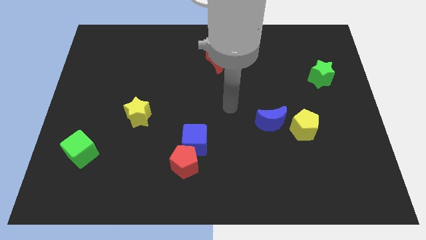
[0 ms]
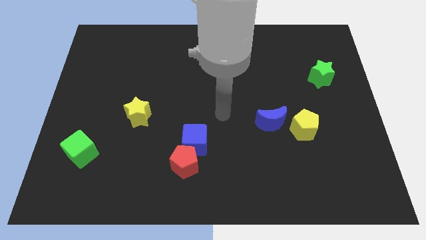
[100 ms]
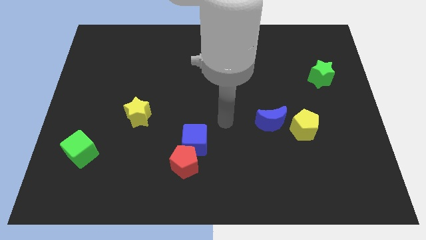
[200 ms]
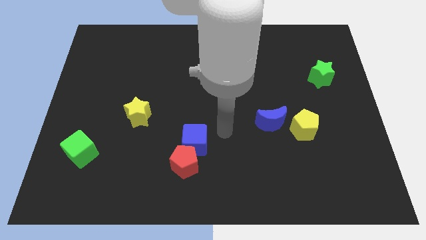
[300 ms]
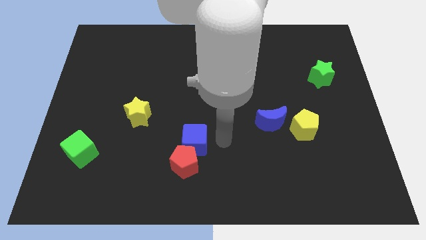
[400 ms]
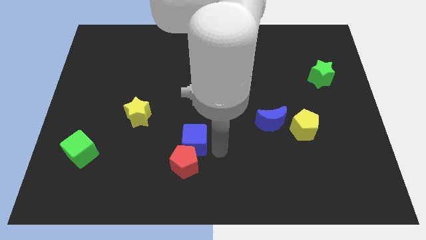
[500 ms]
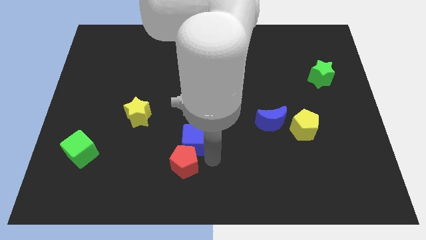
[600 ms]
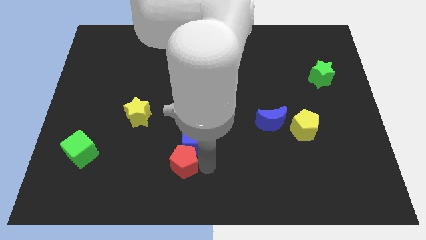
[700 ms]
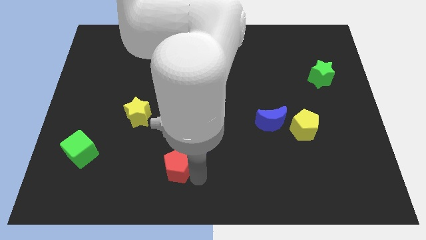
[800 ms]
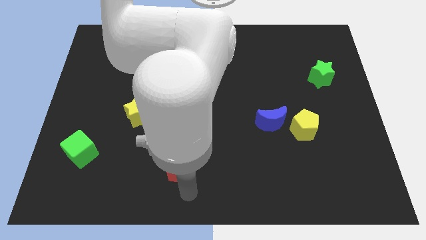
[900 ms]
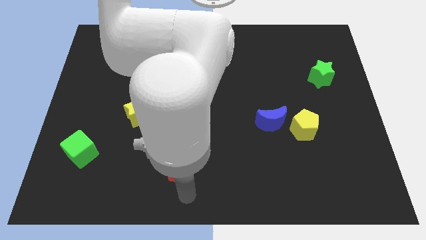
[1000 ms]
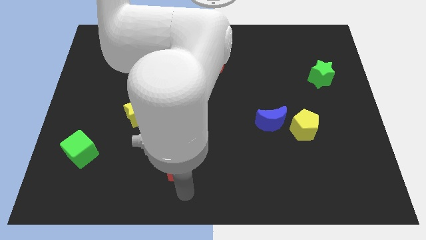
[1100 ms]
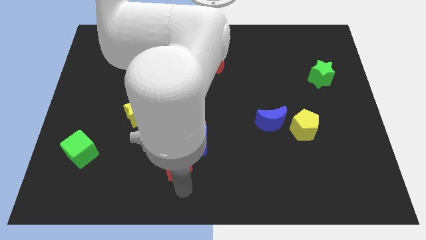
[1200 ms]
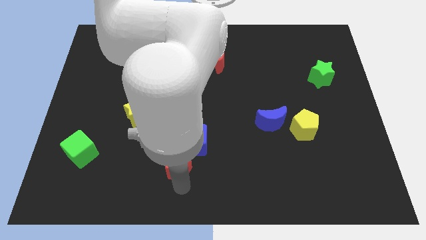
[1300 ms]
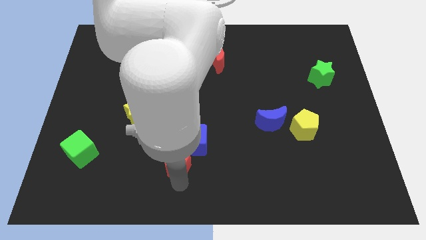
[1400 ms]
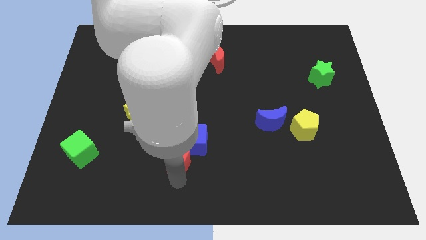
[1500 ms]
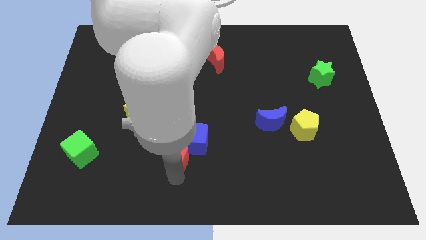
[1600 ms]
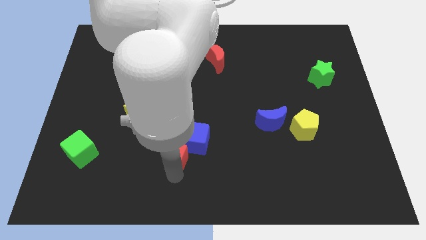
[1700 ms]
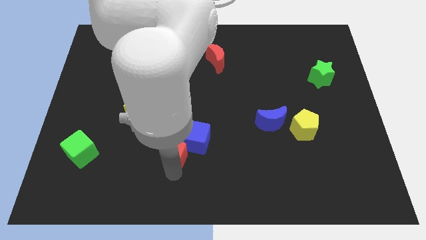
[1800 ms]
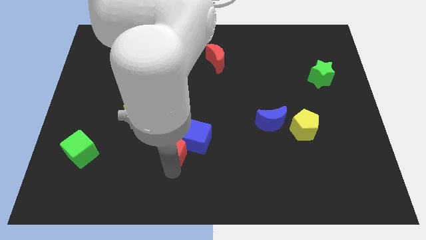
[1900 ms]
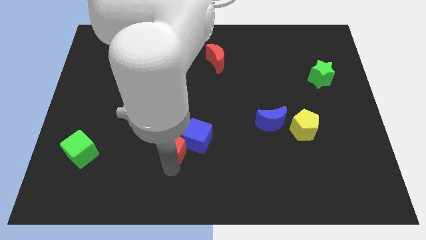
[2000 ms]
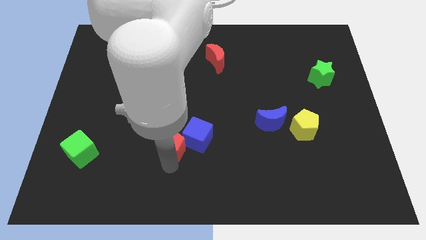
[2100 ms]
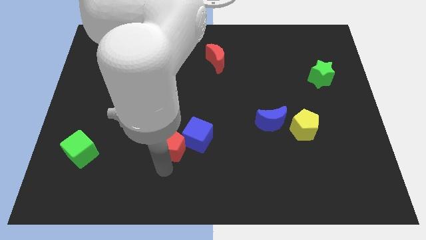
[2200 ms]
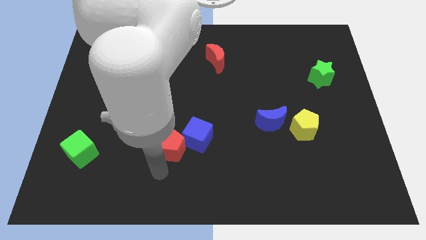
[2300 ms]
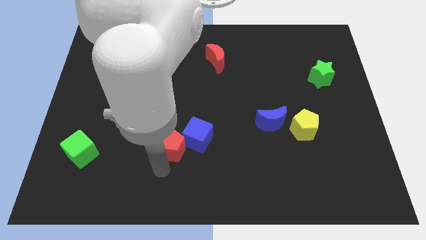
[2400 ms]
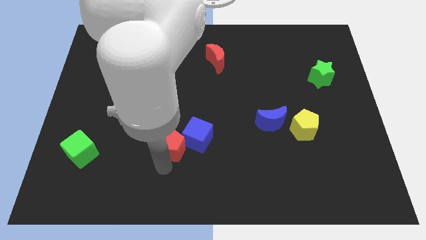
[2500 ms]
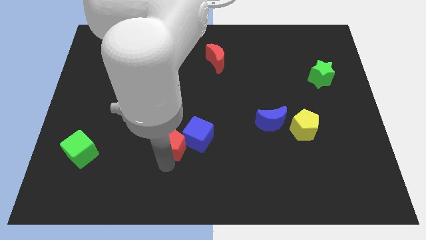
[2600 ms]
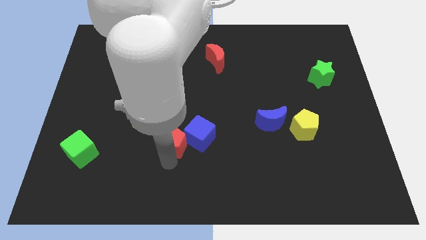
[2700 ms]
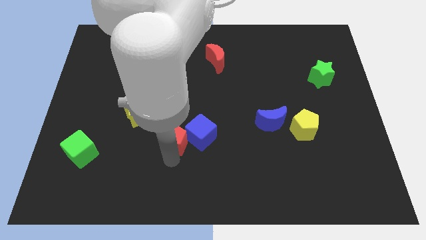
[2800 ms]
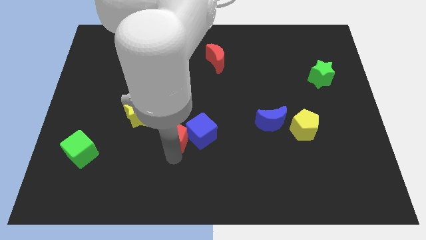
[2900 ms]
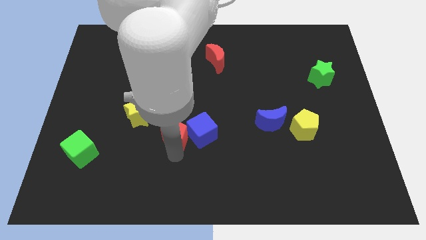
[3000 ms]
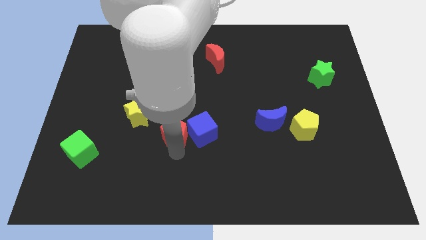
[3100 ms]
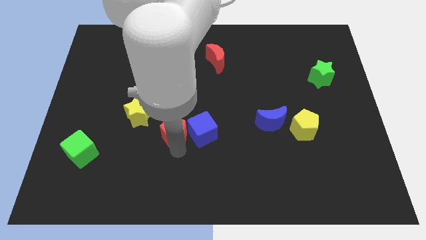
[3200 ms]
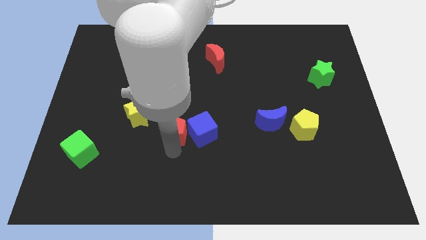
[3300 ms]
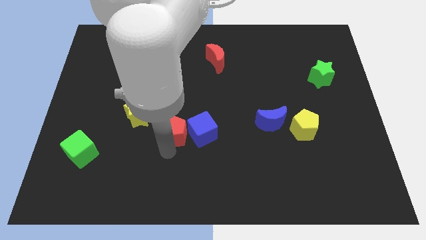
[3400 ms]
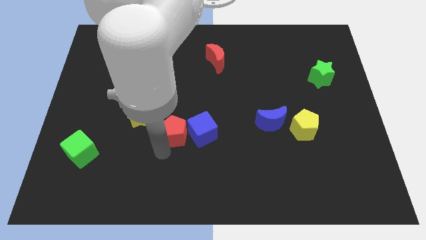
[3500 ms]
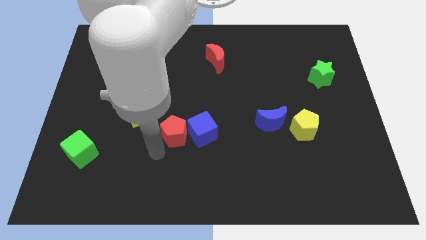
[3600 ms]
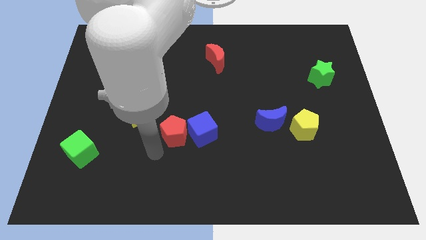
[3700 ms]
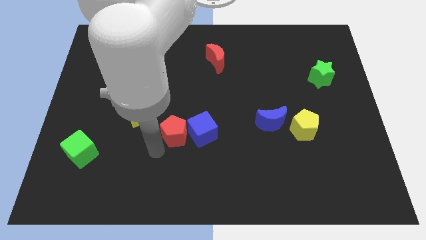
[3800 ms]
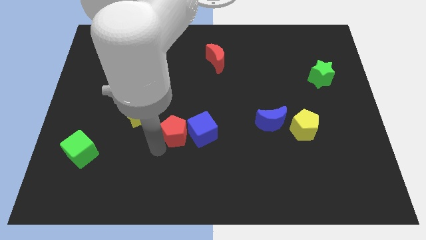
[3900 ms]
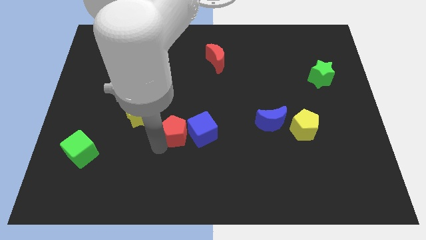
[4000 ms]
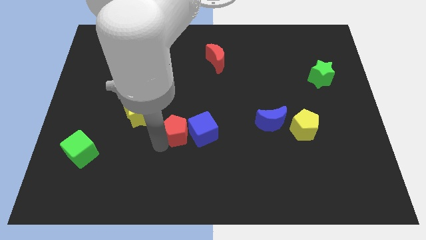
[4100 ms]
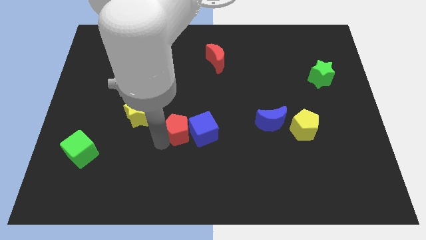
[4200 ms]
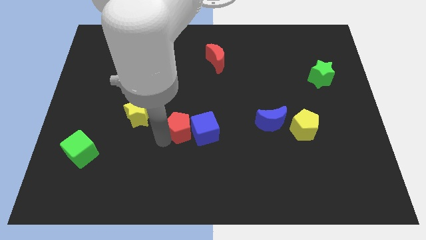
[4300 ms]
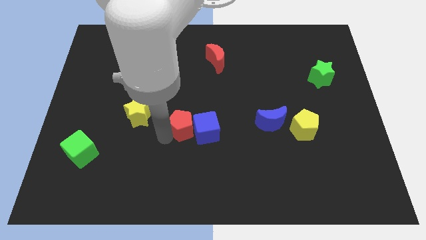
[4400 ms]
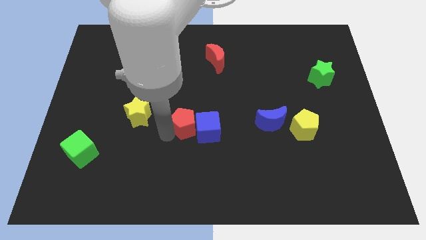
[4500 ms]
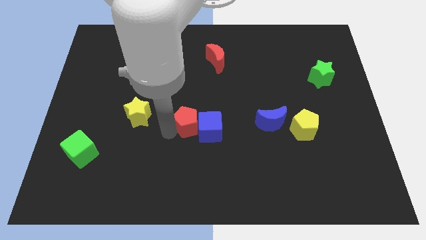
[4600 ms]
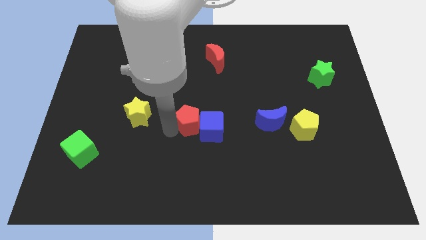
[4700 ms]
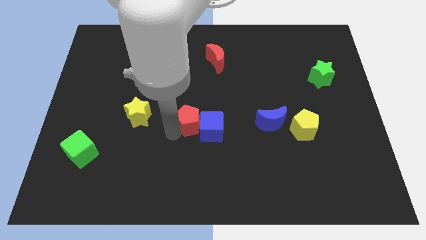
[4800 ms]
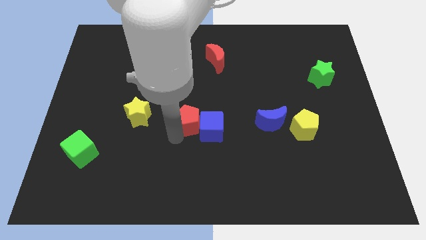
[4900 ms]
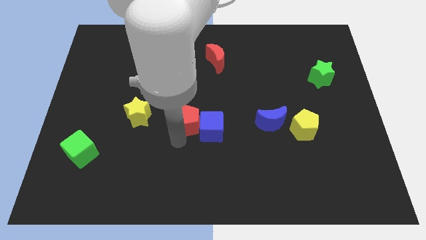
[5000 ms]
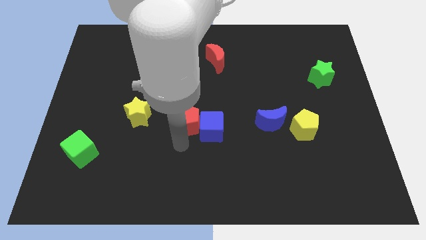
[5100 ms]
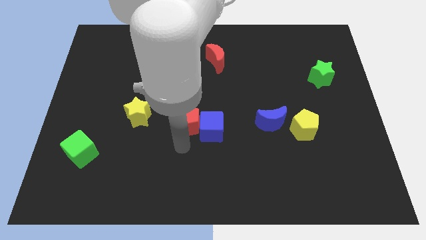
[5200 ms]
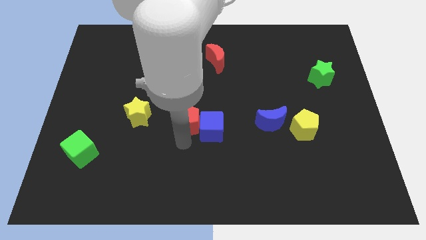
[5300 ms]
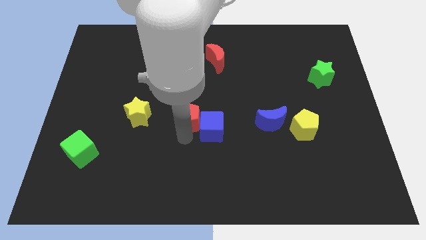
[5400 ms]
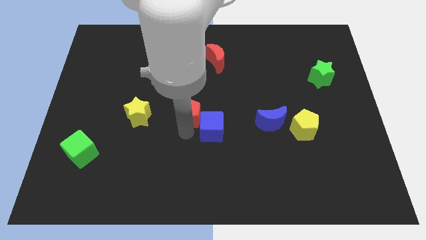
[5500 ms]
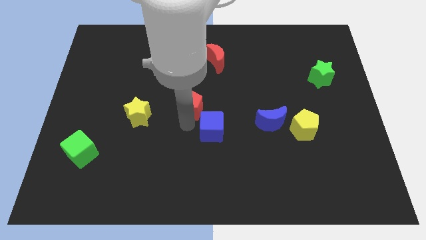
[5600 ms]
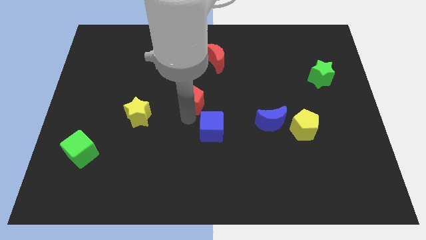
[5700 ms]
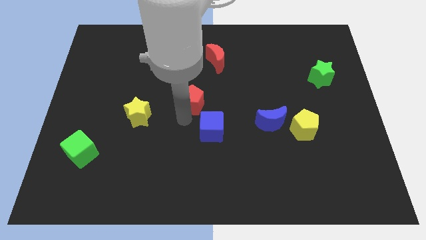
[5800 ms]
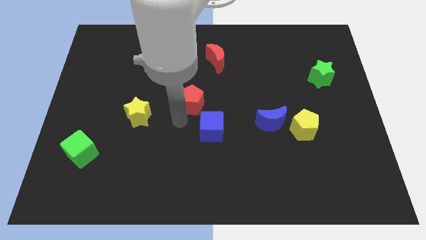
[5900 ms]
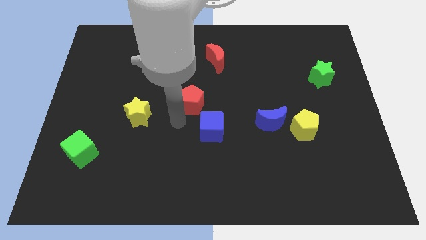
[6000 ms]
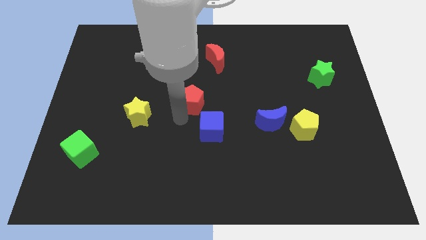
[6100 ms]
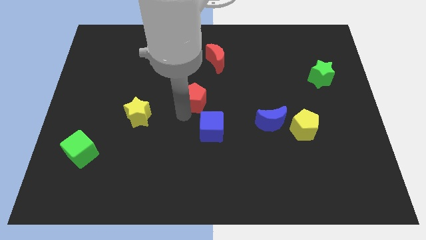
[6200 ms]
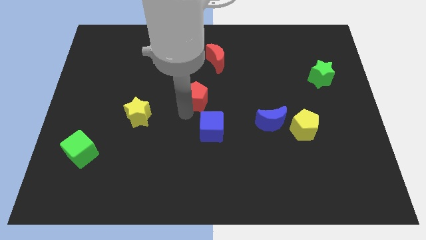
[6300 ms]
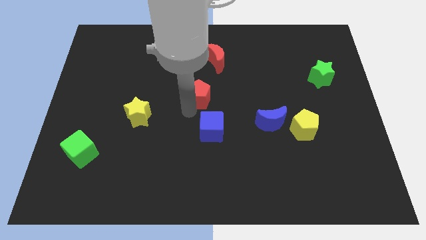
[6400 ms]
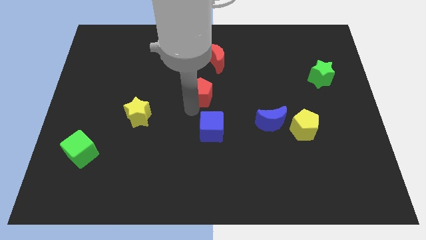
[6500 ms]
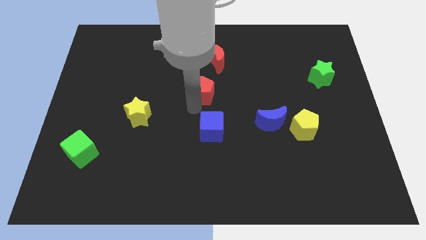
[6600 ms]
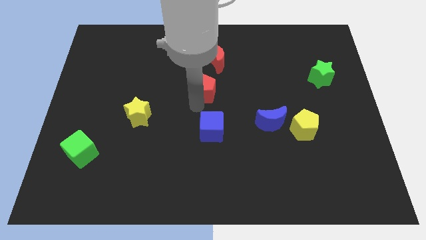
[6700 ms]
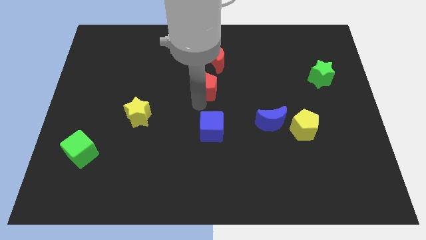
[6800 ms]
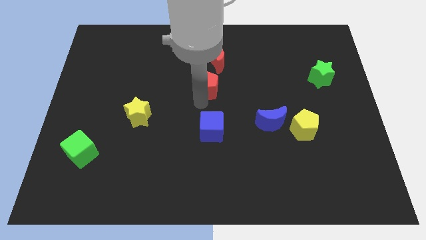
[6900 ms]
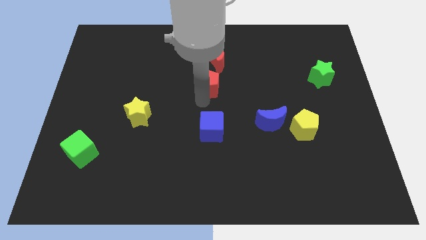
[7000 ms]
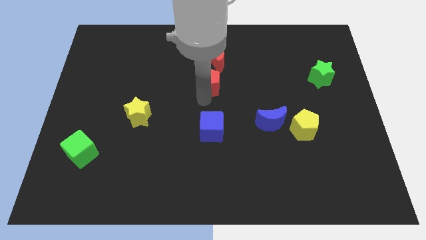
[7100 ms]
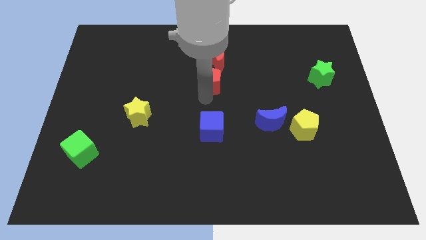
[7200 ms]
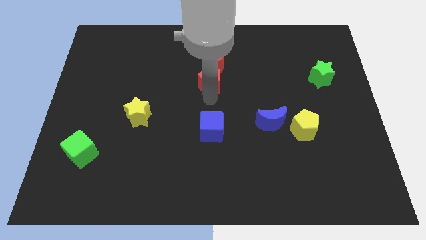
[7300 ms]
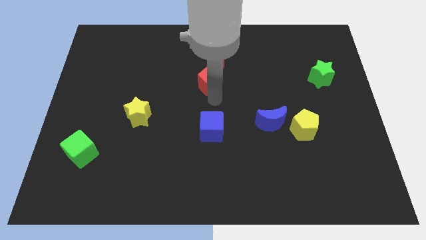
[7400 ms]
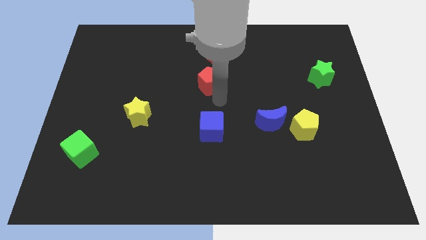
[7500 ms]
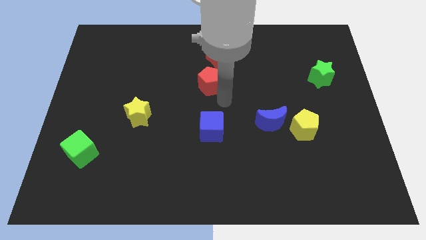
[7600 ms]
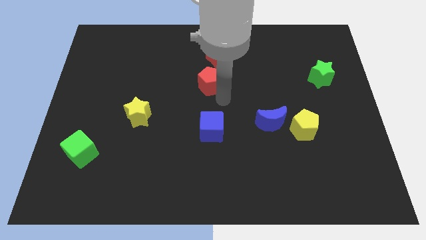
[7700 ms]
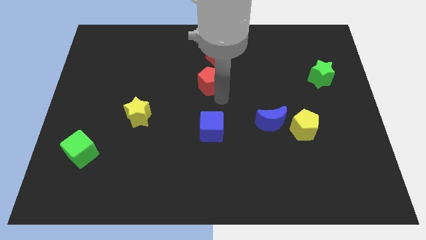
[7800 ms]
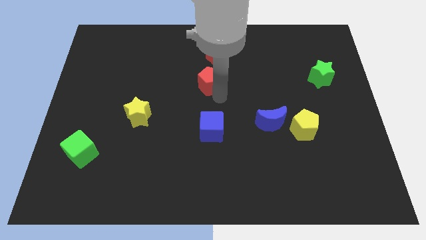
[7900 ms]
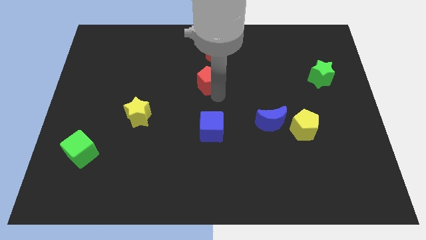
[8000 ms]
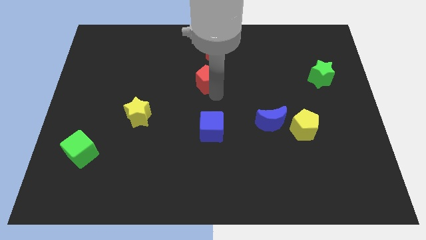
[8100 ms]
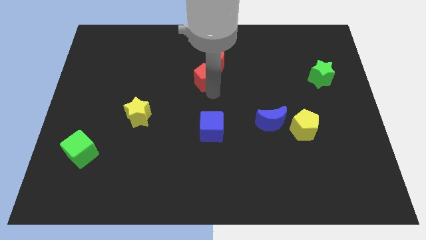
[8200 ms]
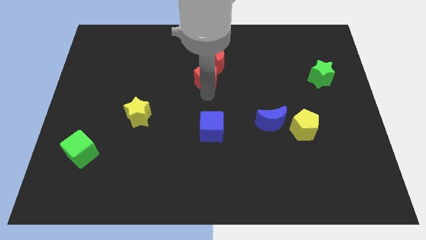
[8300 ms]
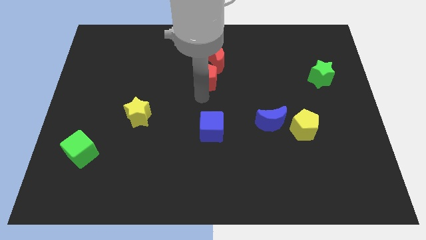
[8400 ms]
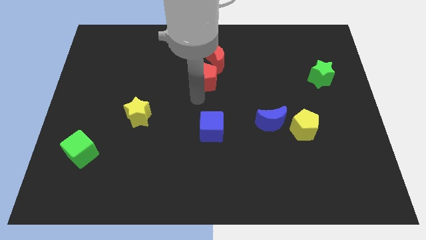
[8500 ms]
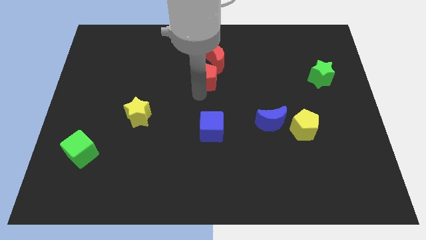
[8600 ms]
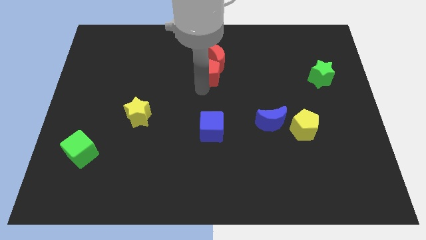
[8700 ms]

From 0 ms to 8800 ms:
push the red pentagon next to the red moon
